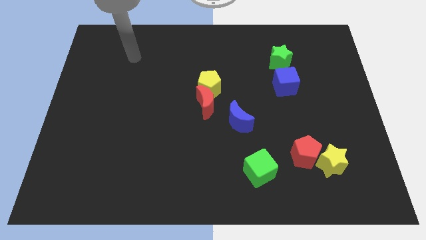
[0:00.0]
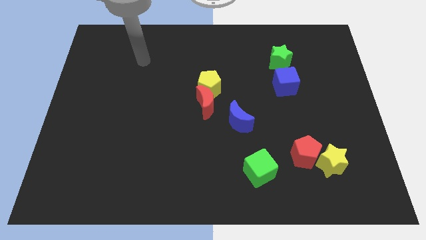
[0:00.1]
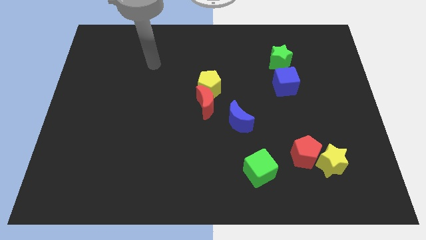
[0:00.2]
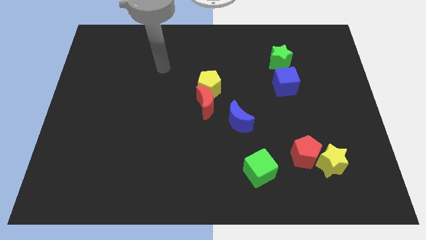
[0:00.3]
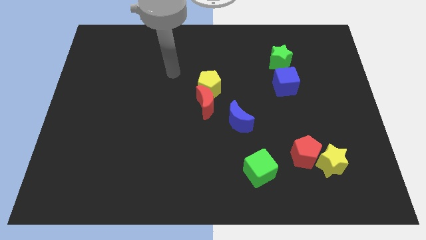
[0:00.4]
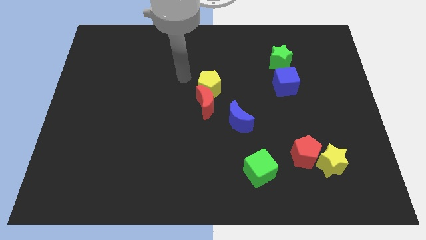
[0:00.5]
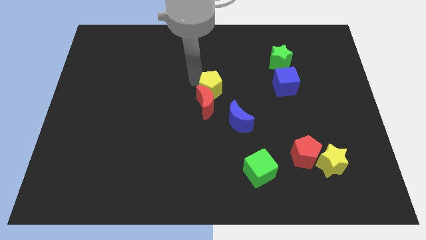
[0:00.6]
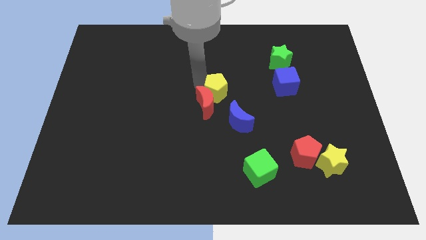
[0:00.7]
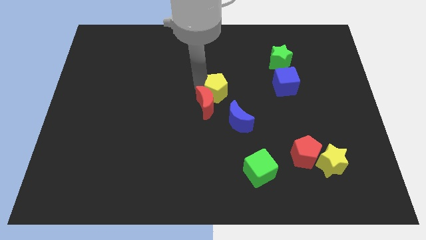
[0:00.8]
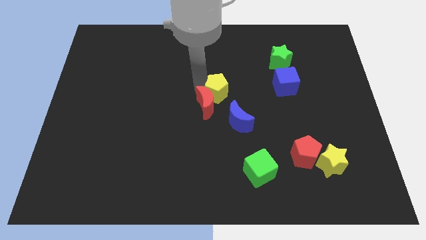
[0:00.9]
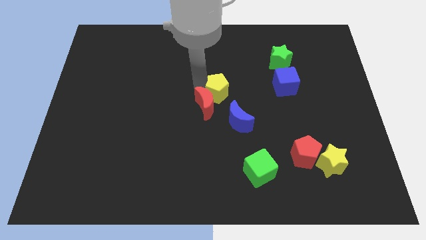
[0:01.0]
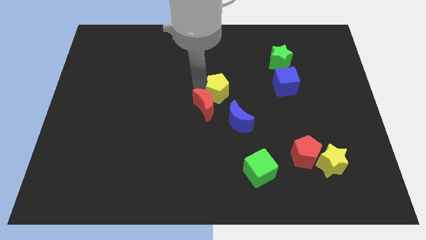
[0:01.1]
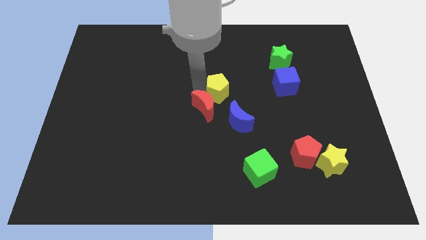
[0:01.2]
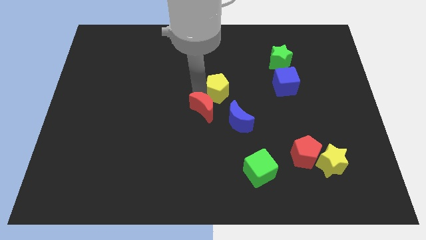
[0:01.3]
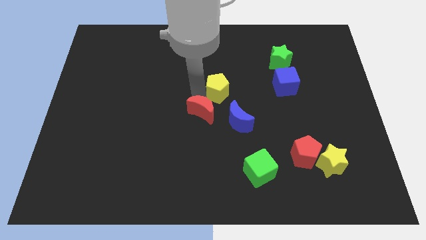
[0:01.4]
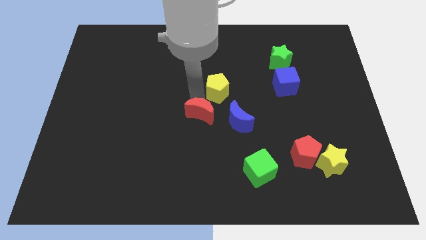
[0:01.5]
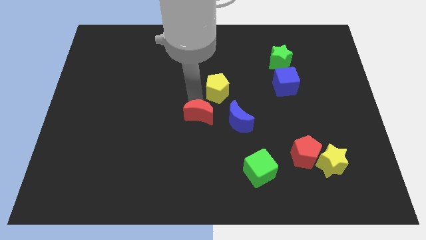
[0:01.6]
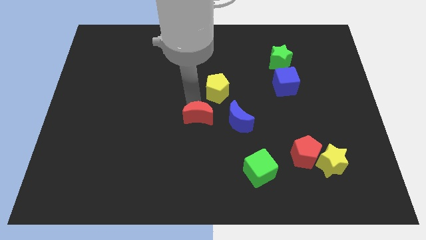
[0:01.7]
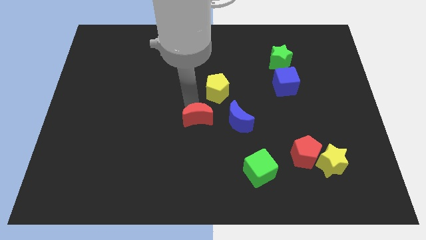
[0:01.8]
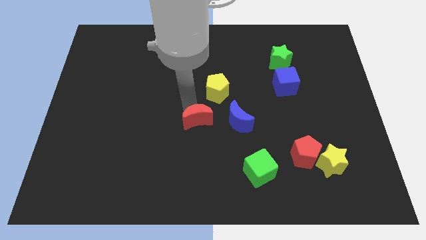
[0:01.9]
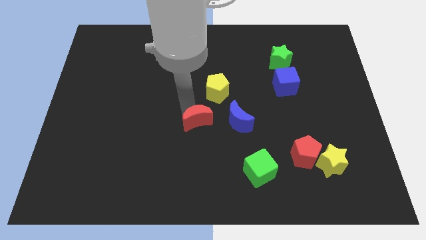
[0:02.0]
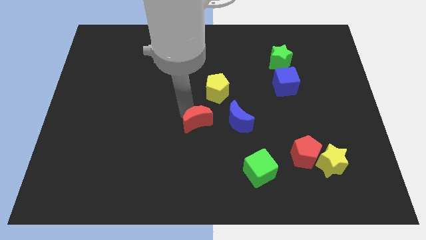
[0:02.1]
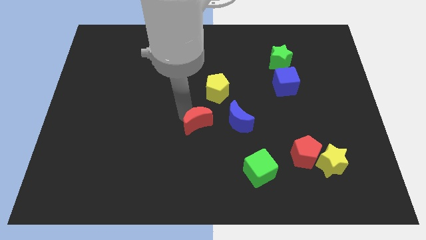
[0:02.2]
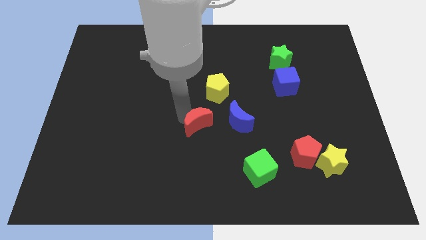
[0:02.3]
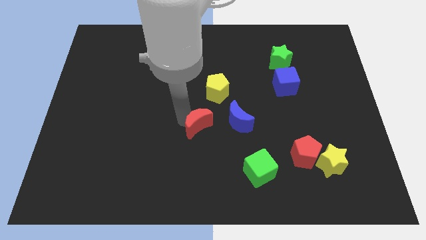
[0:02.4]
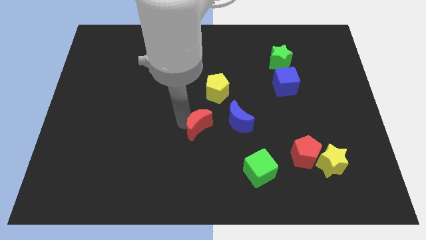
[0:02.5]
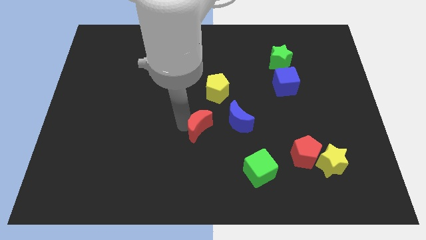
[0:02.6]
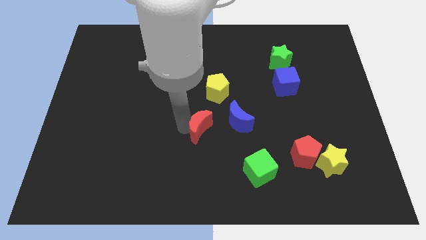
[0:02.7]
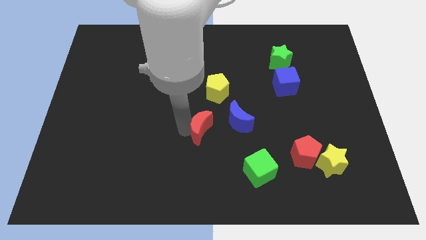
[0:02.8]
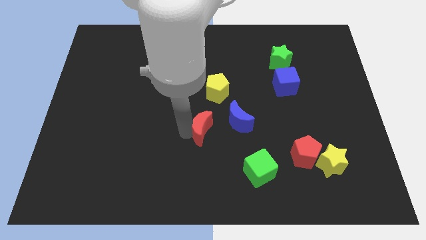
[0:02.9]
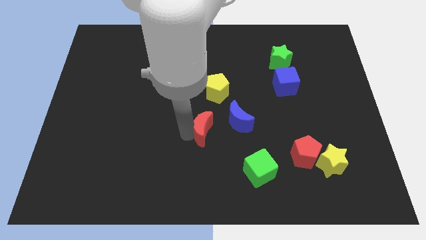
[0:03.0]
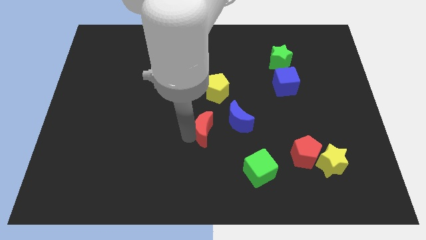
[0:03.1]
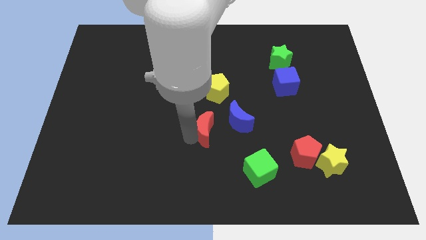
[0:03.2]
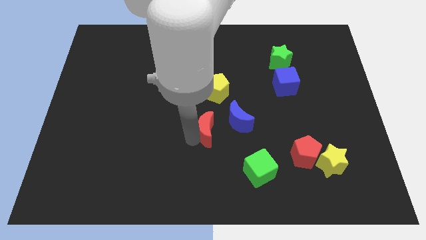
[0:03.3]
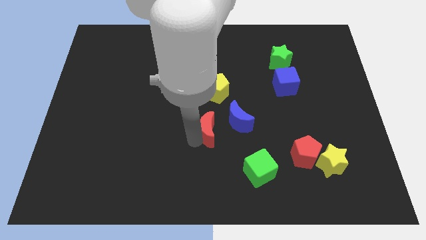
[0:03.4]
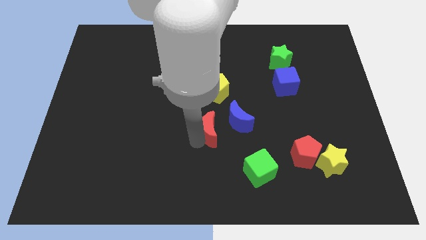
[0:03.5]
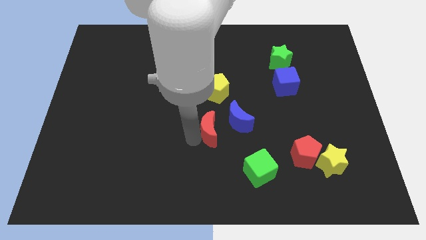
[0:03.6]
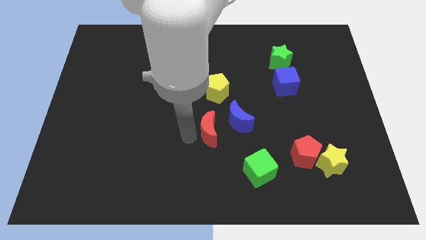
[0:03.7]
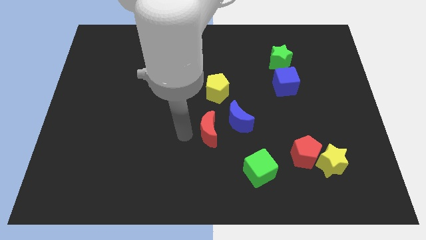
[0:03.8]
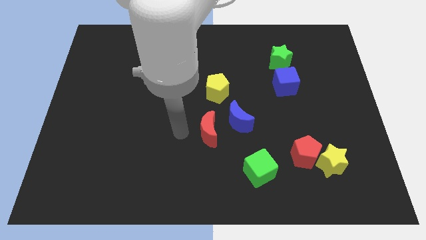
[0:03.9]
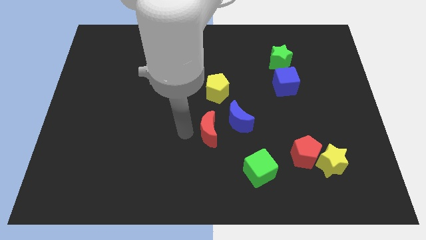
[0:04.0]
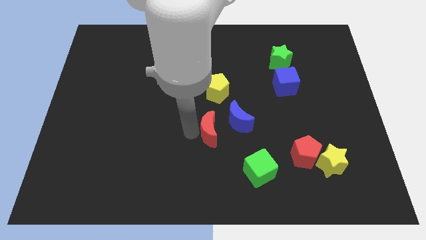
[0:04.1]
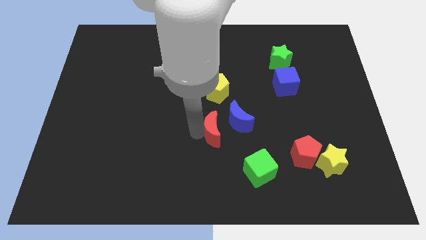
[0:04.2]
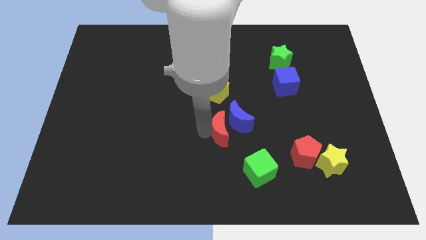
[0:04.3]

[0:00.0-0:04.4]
push the red moon slightly down and right

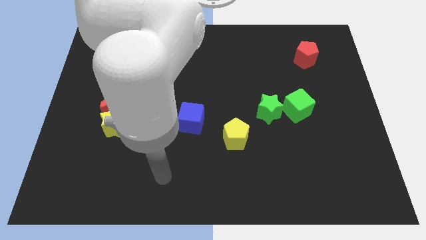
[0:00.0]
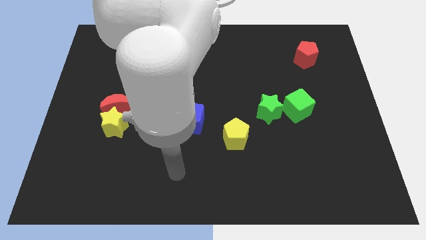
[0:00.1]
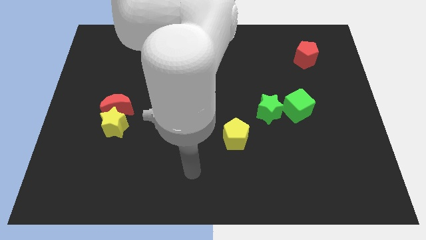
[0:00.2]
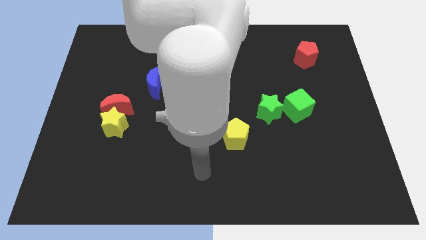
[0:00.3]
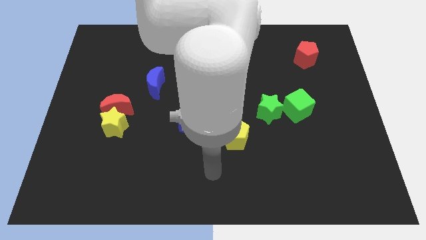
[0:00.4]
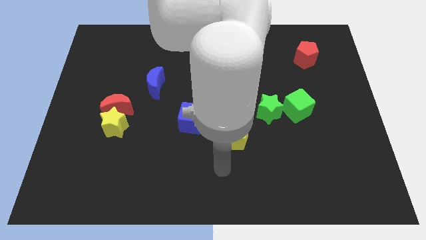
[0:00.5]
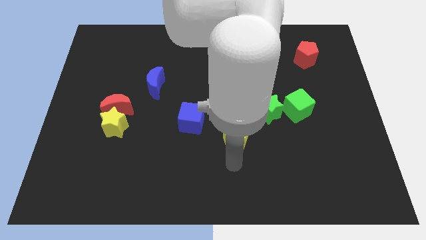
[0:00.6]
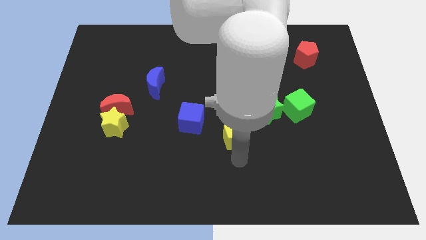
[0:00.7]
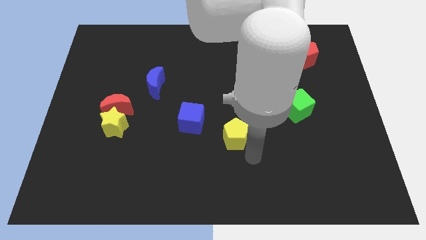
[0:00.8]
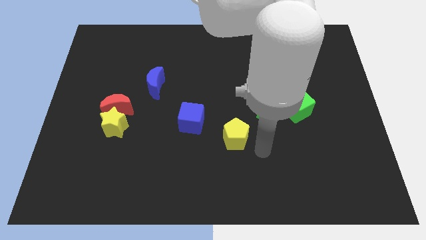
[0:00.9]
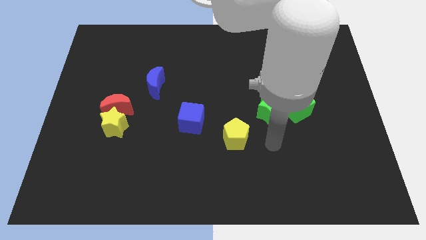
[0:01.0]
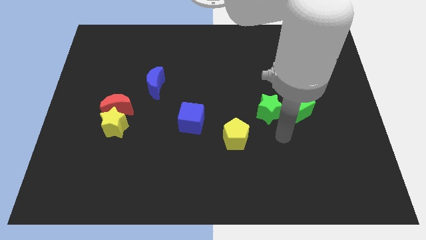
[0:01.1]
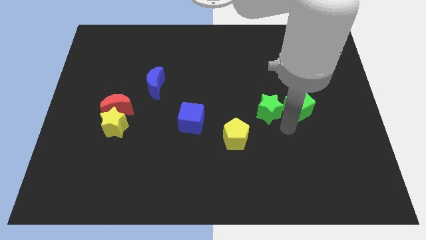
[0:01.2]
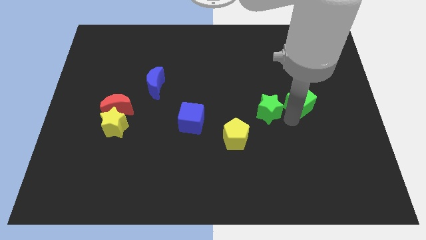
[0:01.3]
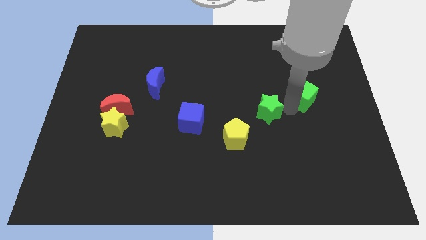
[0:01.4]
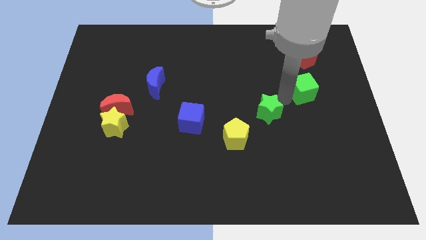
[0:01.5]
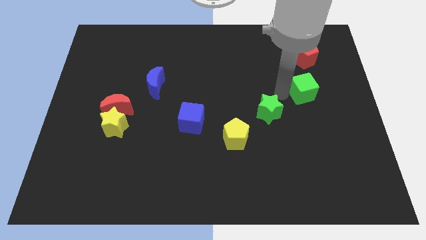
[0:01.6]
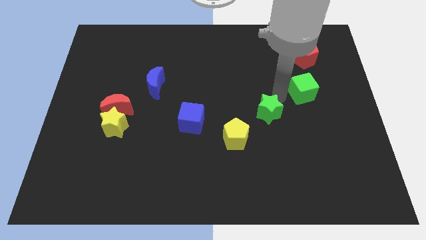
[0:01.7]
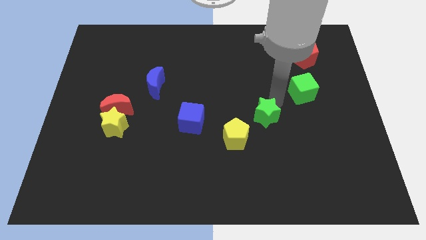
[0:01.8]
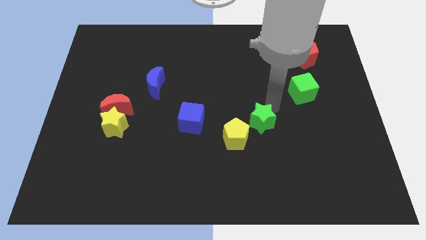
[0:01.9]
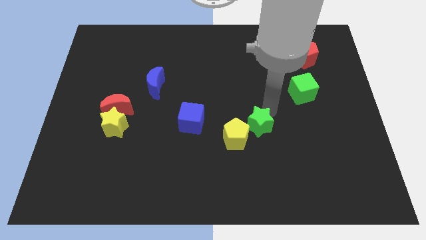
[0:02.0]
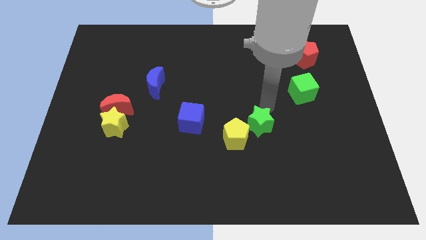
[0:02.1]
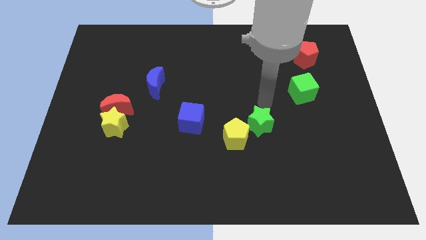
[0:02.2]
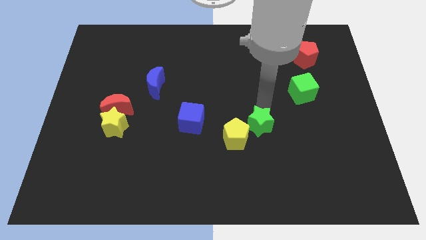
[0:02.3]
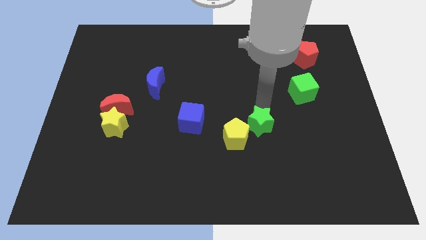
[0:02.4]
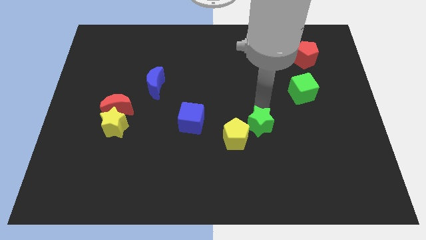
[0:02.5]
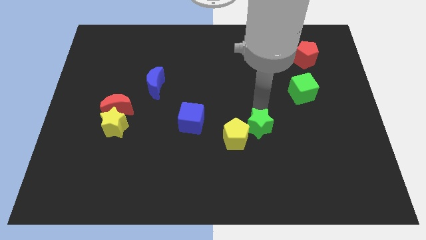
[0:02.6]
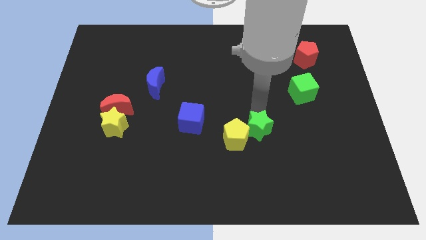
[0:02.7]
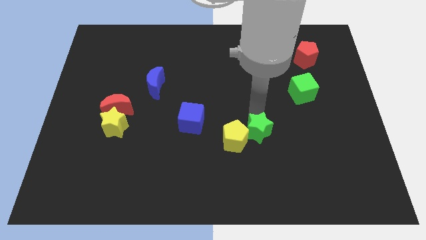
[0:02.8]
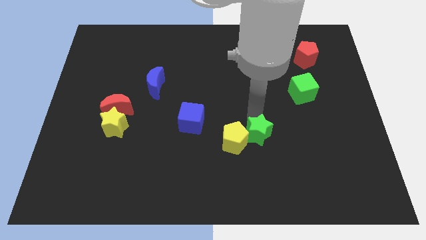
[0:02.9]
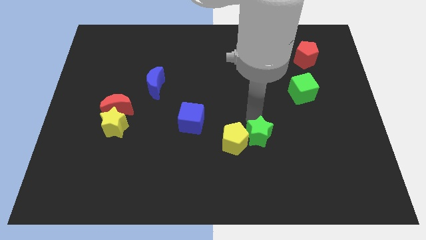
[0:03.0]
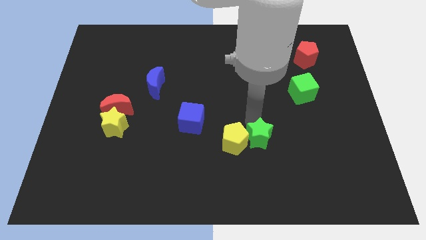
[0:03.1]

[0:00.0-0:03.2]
slightly push the green star downwards and then to the left

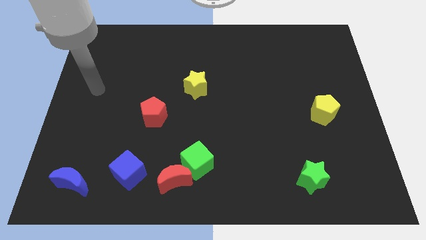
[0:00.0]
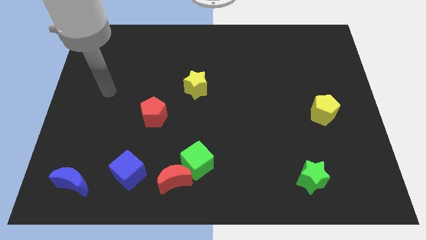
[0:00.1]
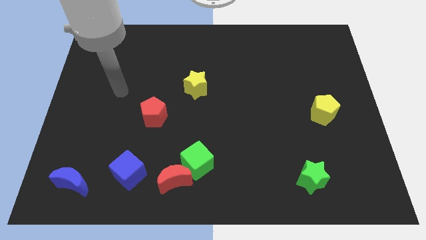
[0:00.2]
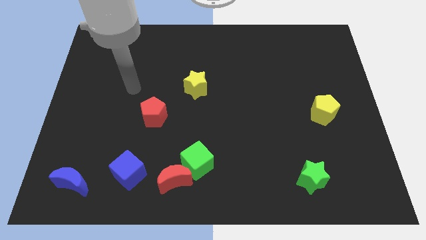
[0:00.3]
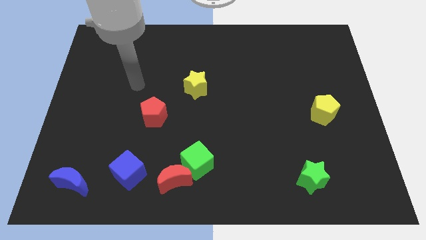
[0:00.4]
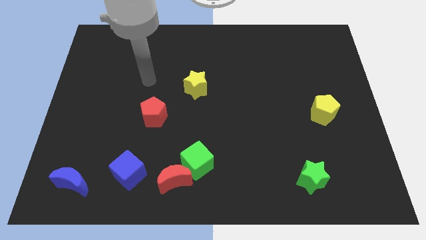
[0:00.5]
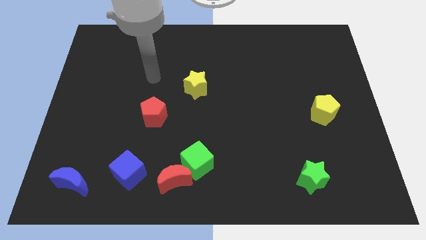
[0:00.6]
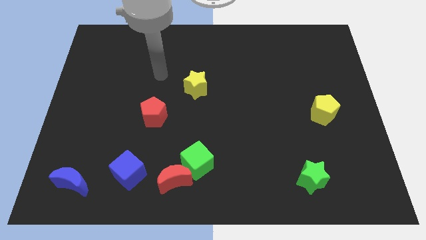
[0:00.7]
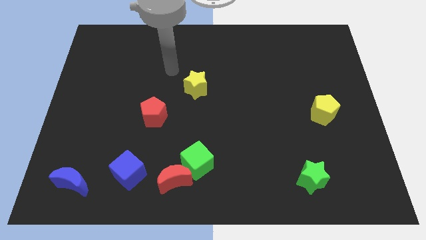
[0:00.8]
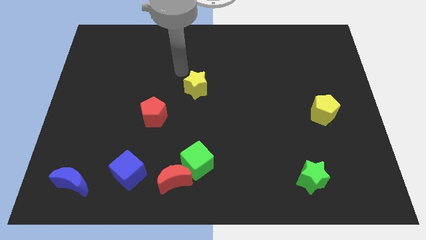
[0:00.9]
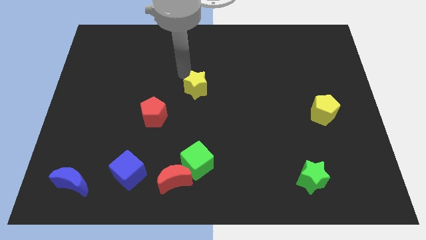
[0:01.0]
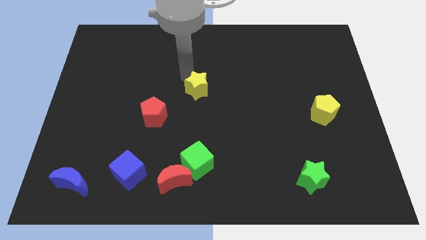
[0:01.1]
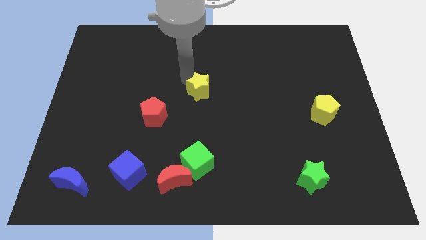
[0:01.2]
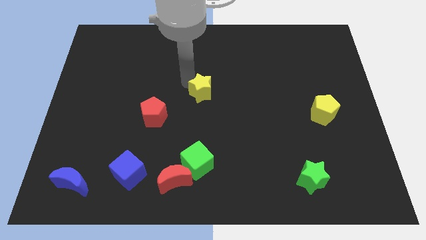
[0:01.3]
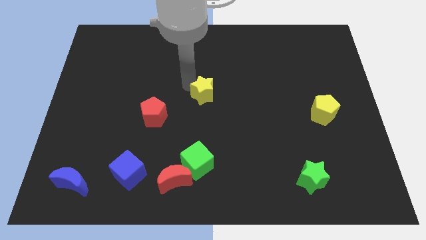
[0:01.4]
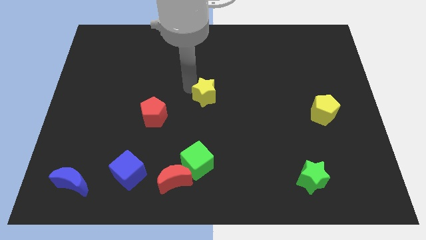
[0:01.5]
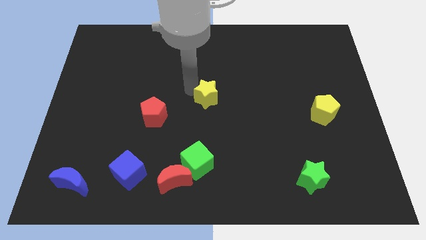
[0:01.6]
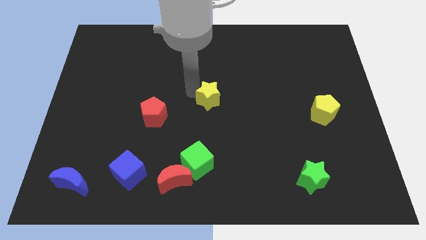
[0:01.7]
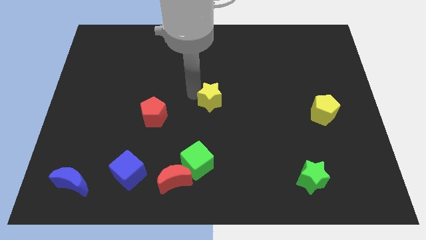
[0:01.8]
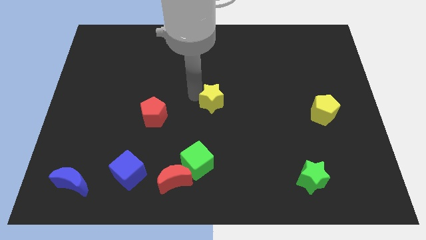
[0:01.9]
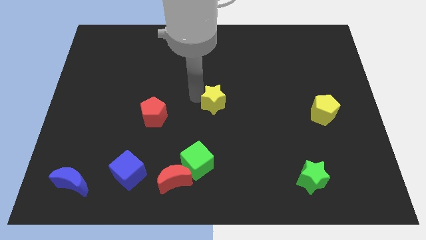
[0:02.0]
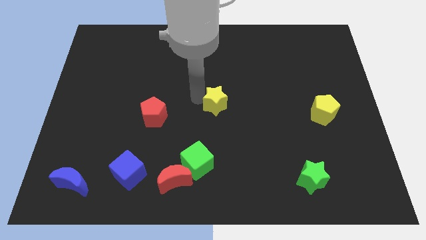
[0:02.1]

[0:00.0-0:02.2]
push the yellow star downwards and right diagonally slightly
